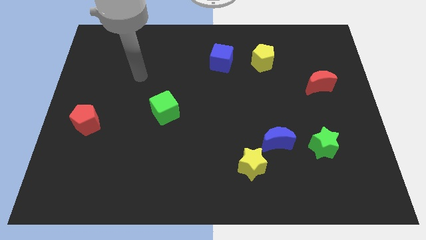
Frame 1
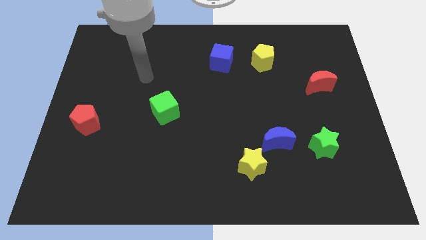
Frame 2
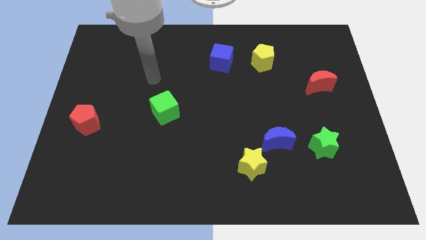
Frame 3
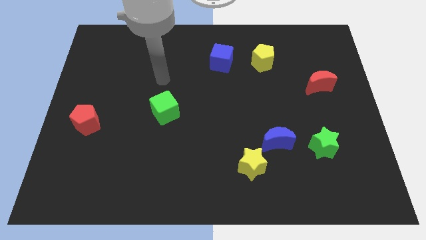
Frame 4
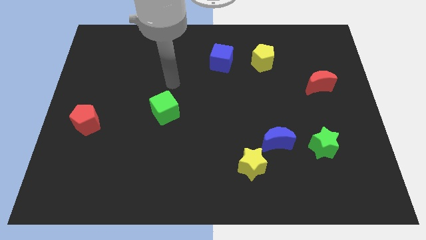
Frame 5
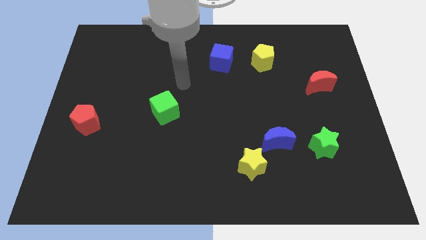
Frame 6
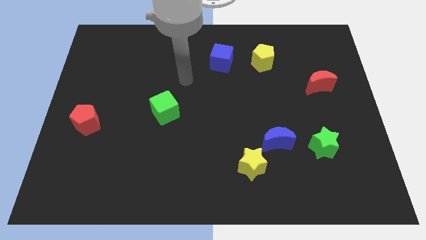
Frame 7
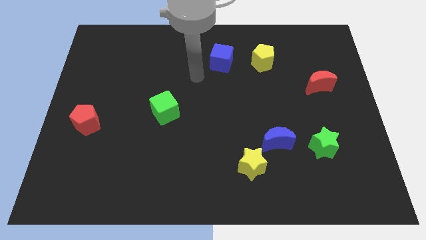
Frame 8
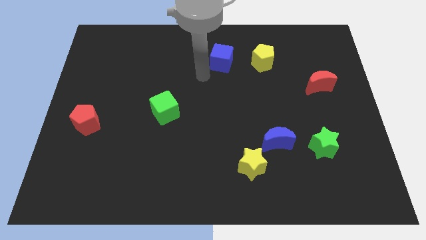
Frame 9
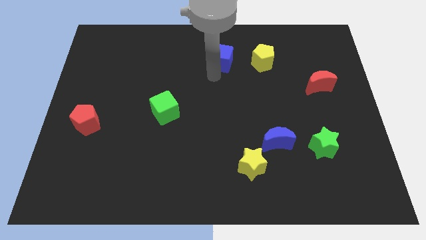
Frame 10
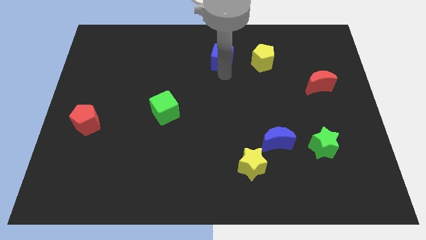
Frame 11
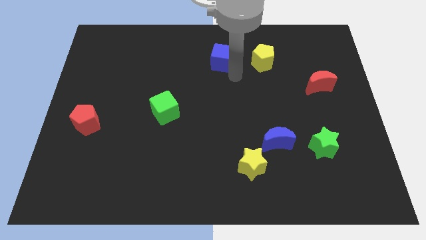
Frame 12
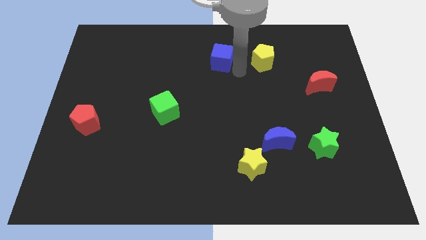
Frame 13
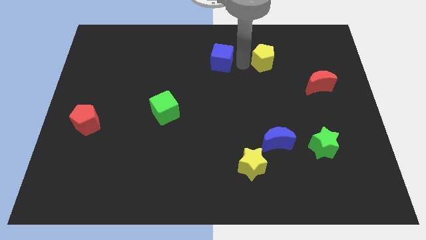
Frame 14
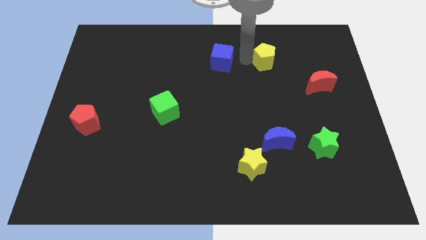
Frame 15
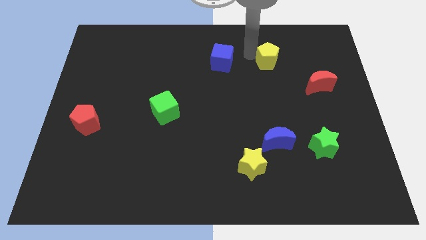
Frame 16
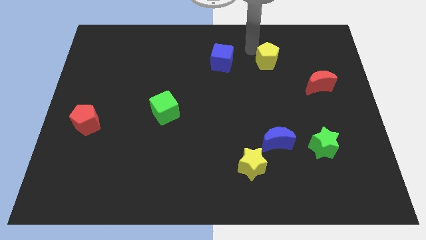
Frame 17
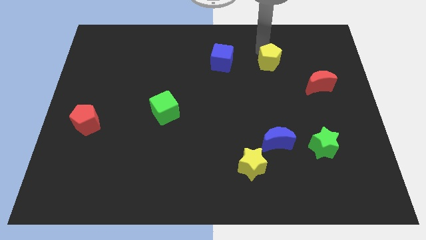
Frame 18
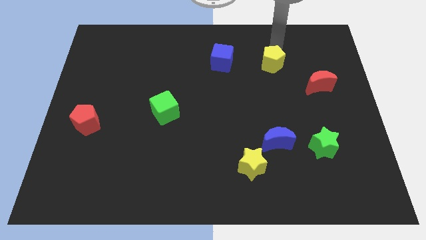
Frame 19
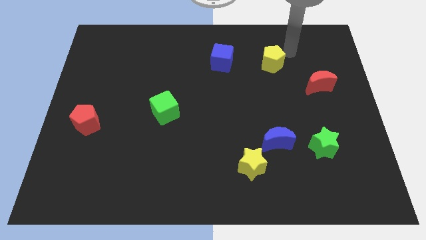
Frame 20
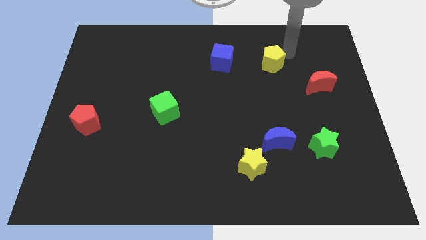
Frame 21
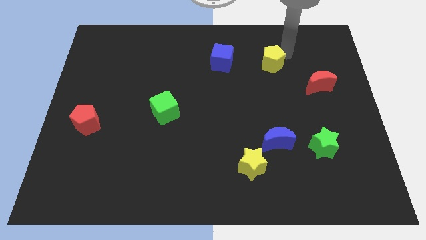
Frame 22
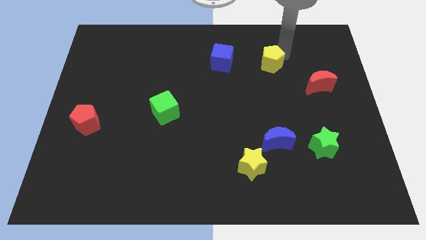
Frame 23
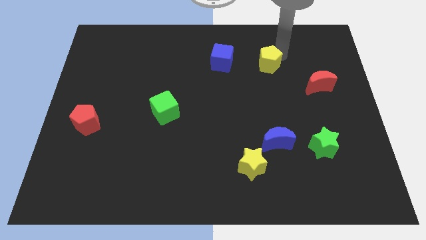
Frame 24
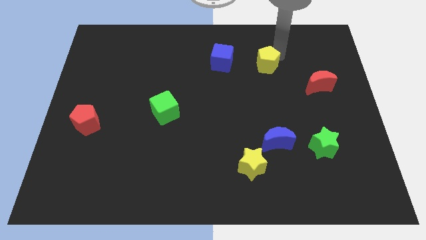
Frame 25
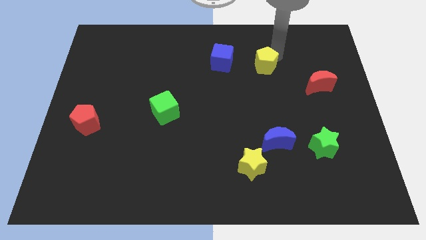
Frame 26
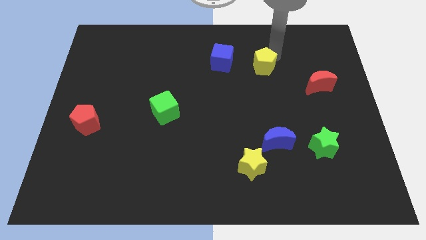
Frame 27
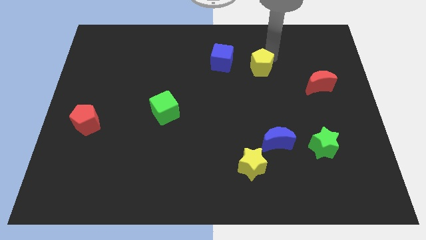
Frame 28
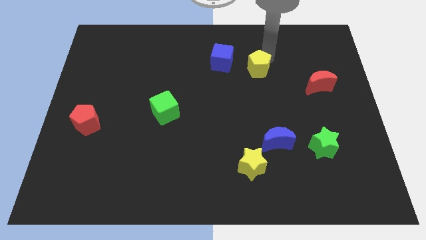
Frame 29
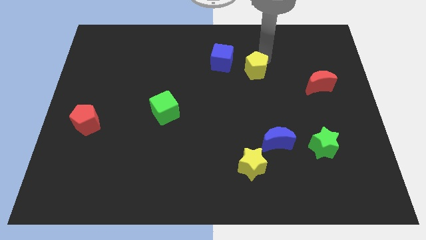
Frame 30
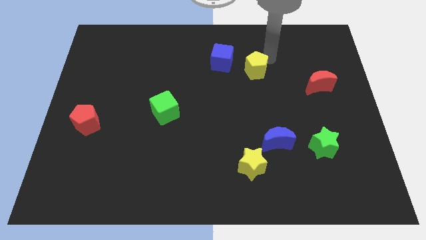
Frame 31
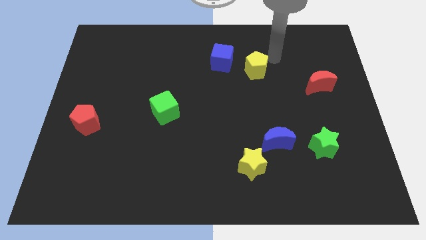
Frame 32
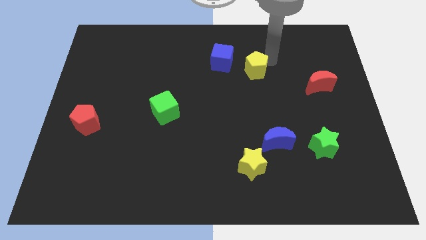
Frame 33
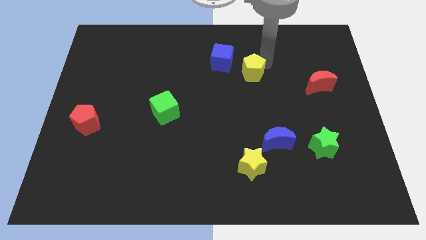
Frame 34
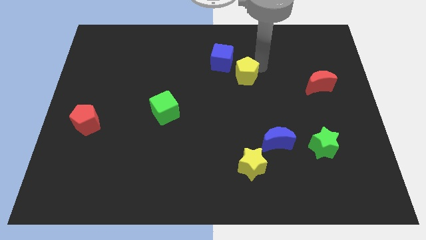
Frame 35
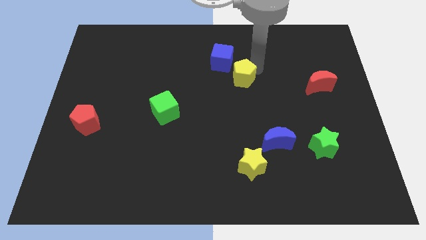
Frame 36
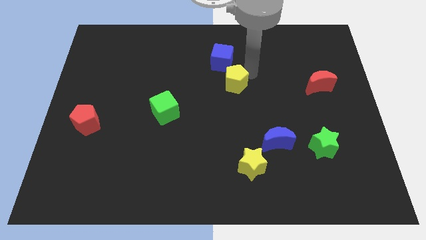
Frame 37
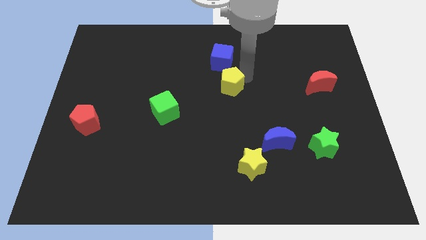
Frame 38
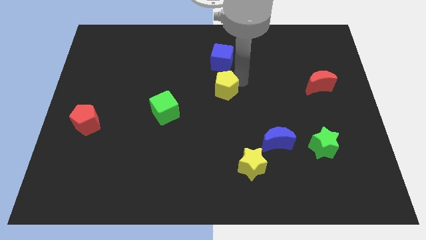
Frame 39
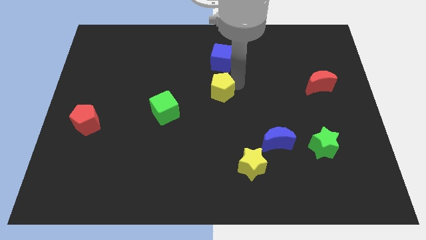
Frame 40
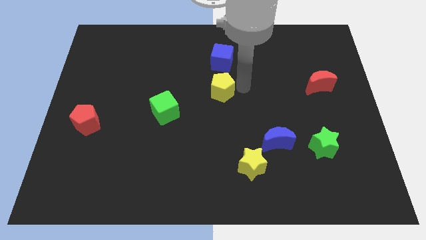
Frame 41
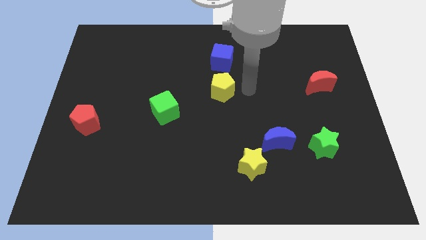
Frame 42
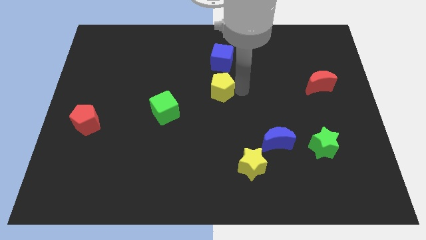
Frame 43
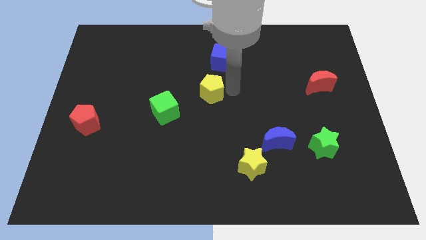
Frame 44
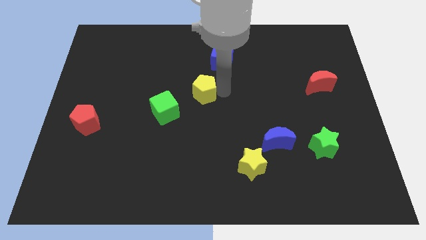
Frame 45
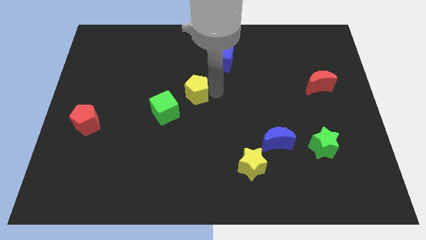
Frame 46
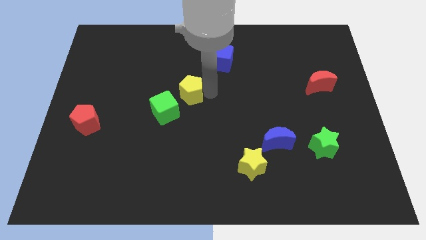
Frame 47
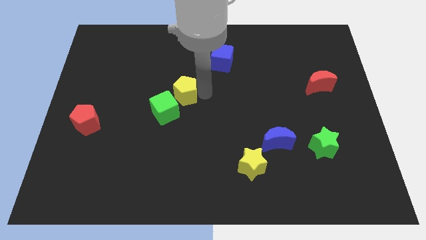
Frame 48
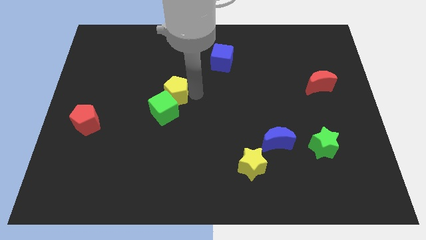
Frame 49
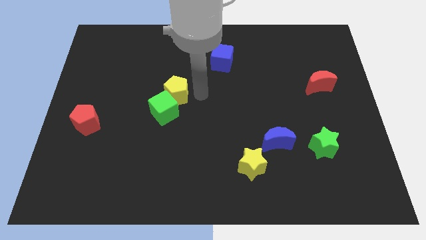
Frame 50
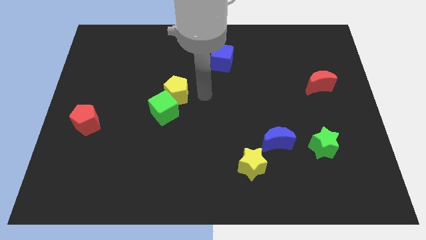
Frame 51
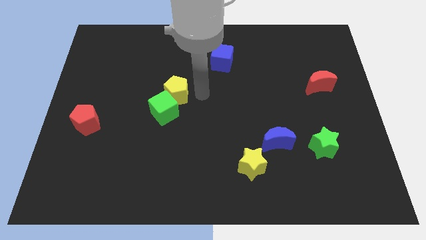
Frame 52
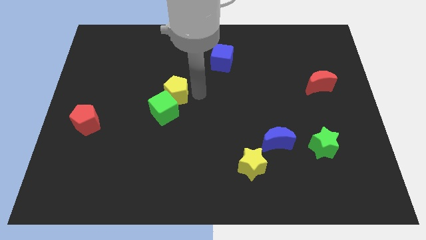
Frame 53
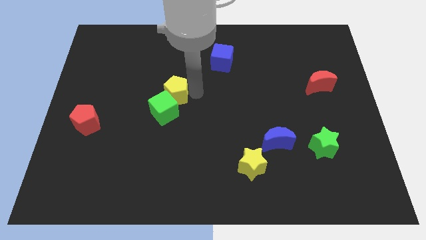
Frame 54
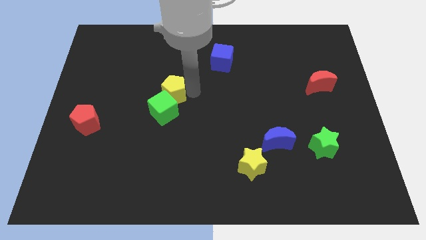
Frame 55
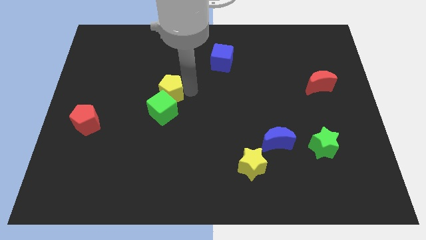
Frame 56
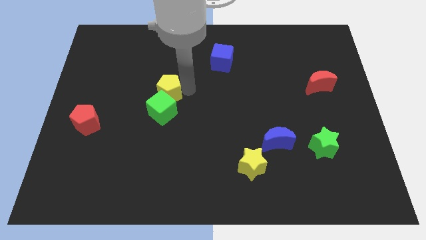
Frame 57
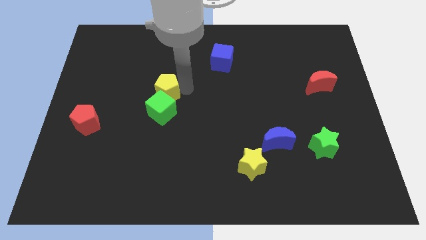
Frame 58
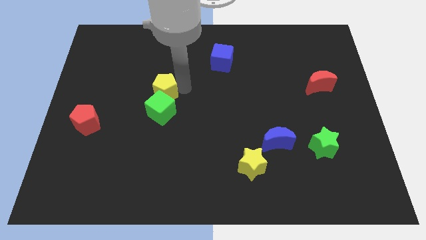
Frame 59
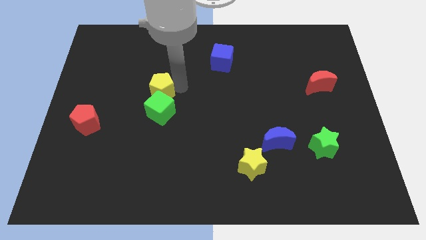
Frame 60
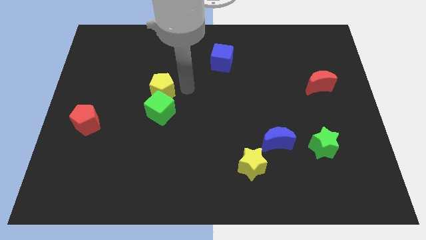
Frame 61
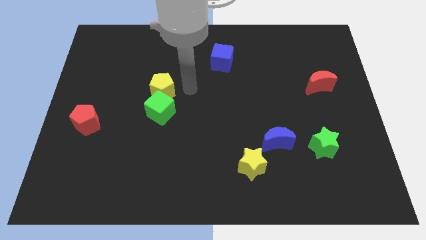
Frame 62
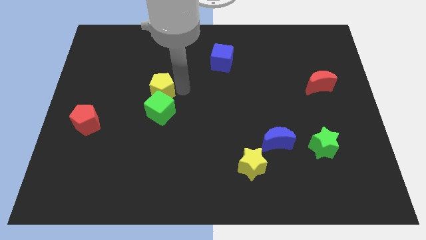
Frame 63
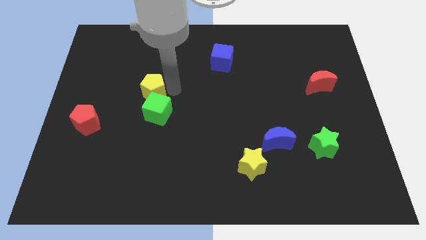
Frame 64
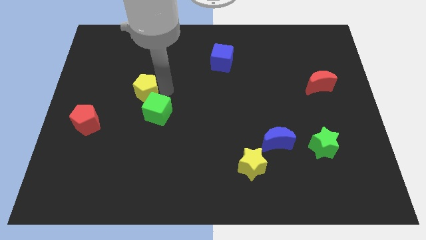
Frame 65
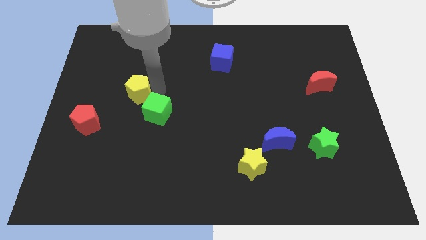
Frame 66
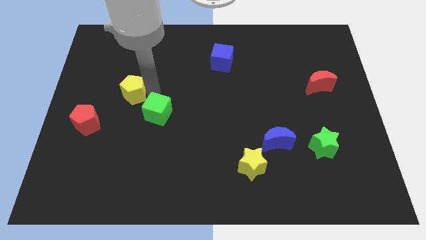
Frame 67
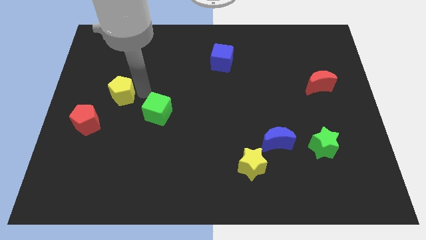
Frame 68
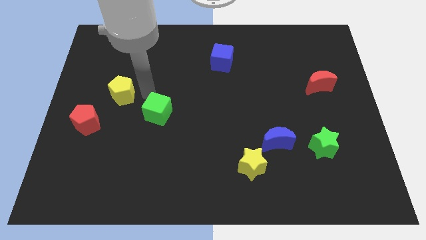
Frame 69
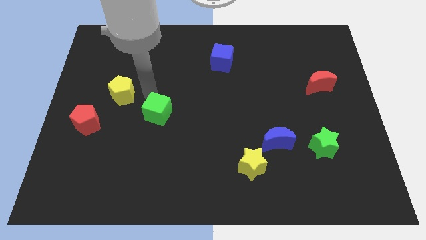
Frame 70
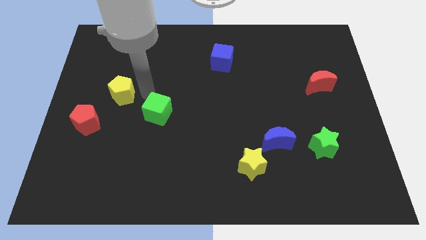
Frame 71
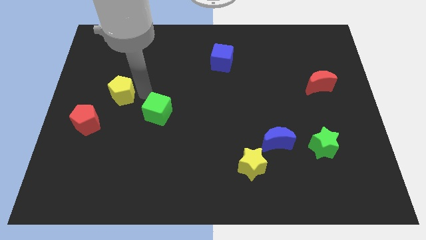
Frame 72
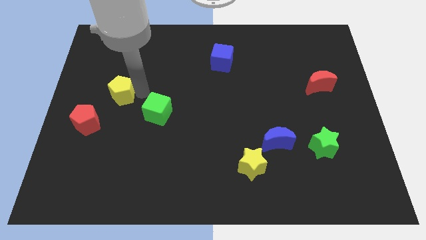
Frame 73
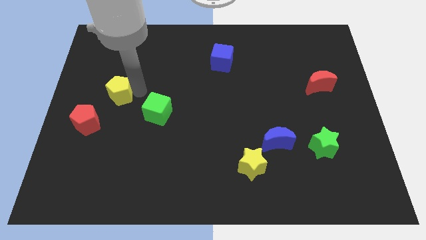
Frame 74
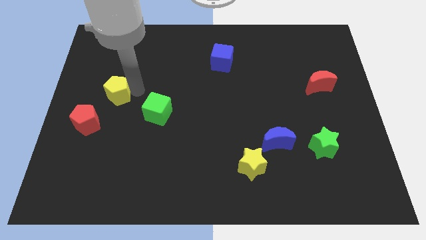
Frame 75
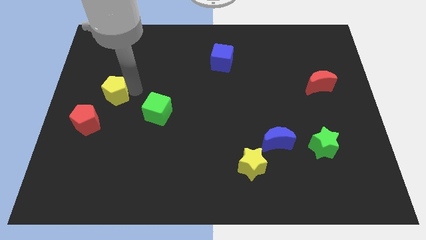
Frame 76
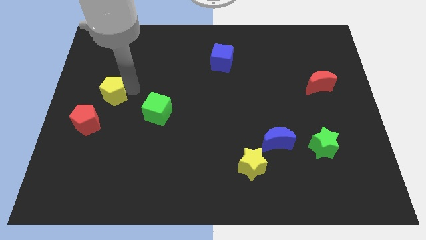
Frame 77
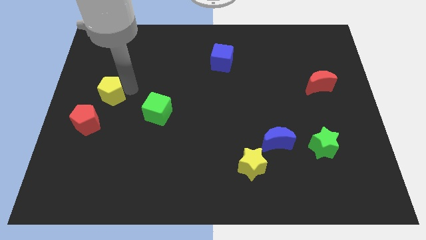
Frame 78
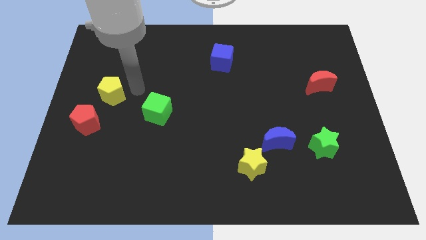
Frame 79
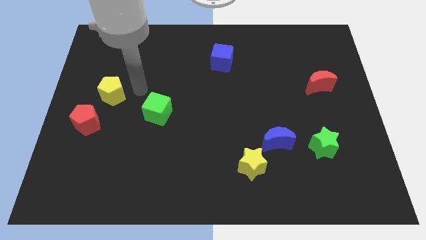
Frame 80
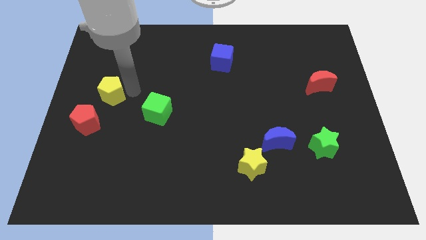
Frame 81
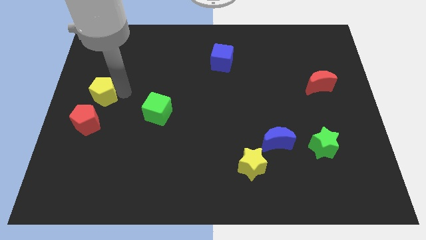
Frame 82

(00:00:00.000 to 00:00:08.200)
put the yellow pentagon to the left side of the board
